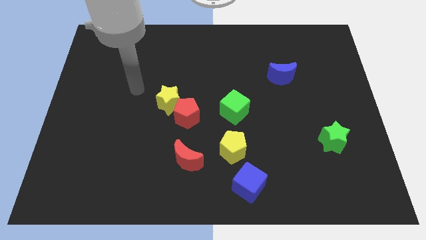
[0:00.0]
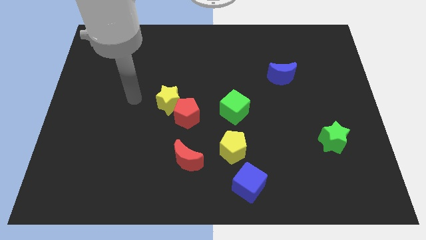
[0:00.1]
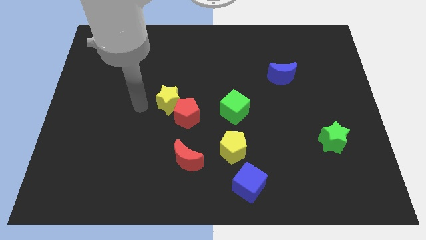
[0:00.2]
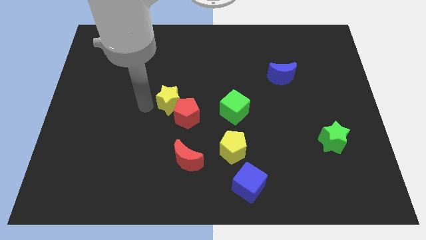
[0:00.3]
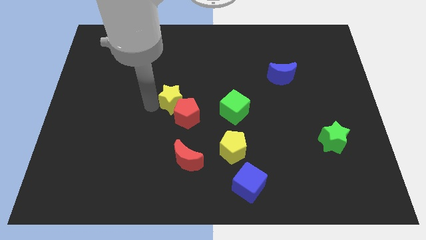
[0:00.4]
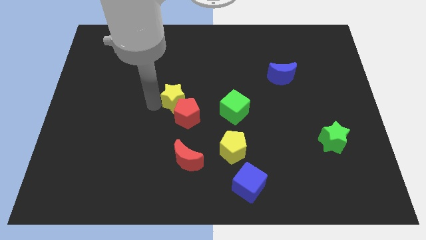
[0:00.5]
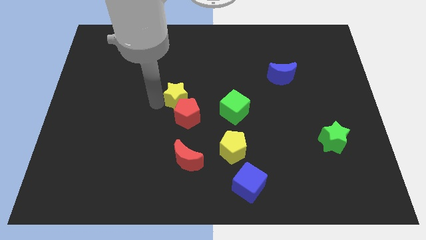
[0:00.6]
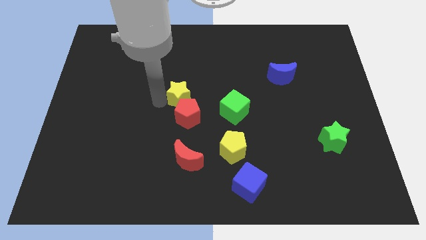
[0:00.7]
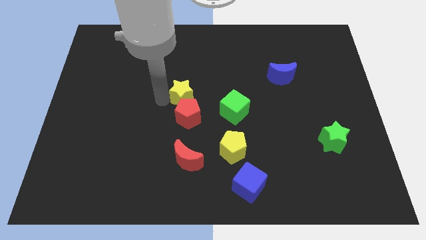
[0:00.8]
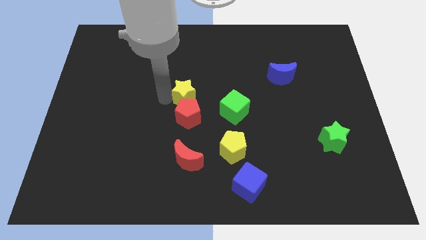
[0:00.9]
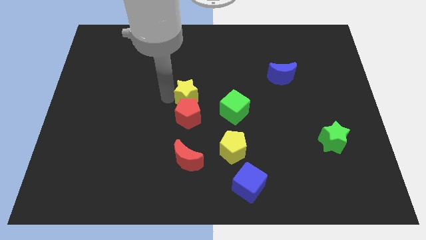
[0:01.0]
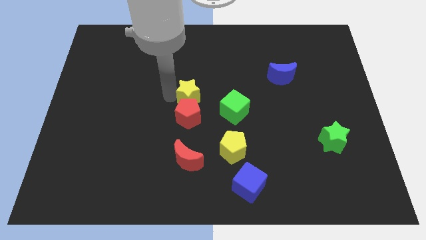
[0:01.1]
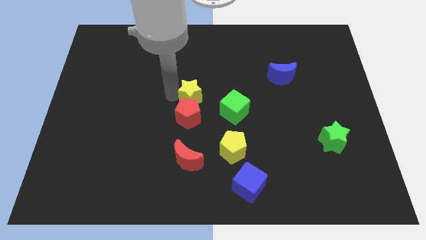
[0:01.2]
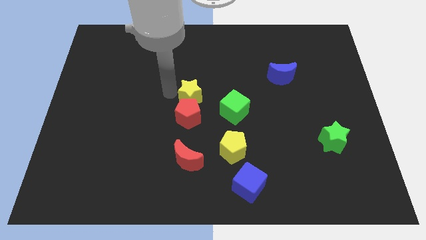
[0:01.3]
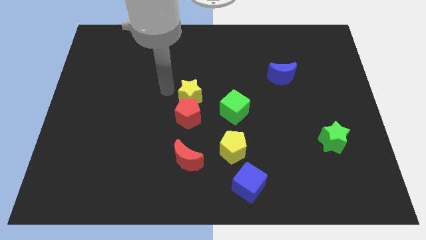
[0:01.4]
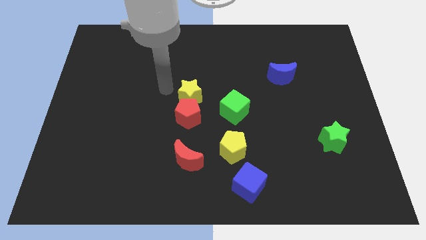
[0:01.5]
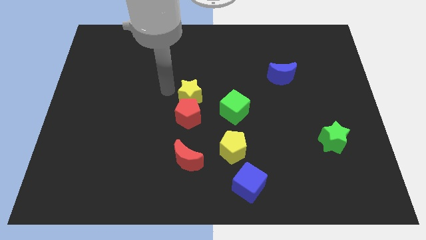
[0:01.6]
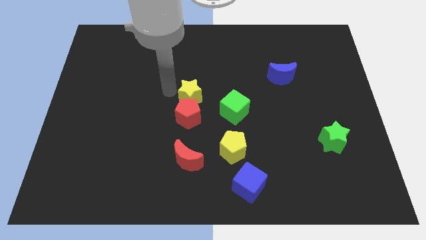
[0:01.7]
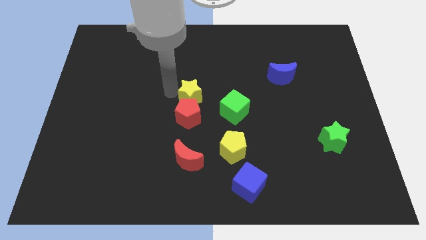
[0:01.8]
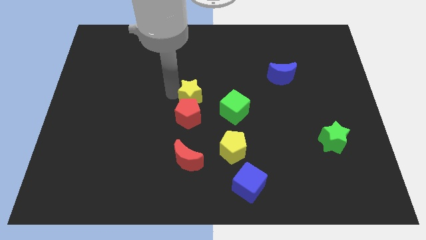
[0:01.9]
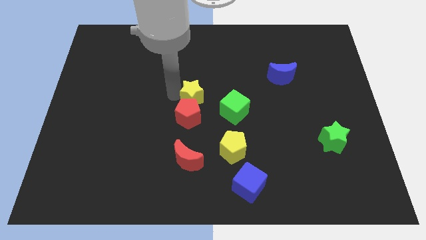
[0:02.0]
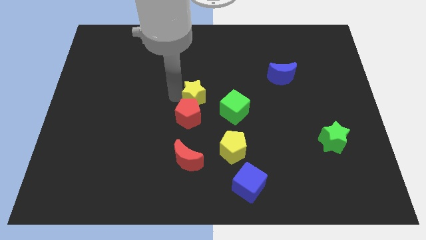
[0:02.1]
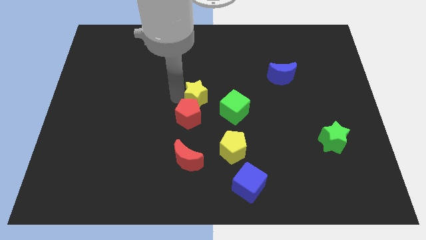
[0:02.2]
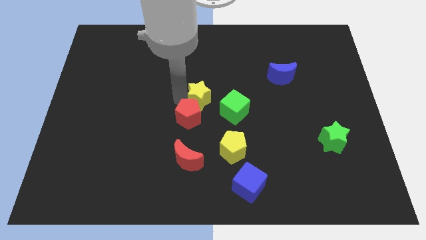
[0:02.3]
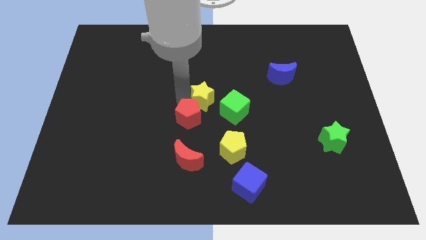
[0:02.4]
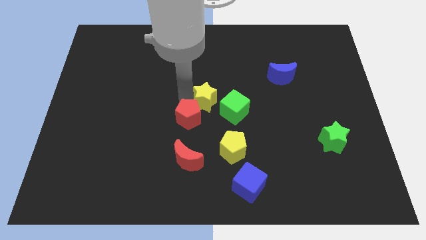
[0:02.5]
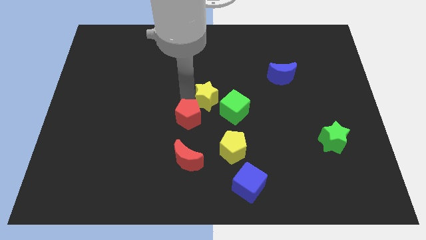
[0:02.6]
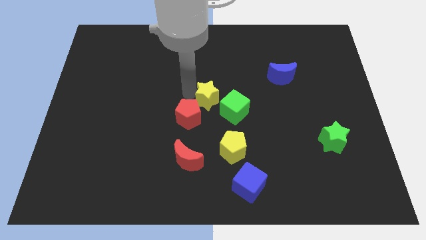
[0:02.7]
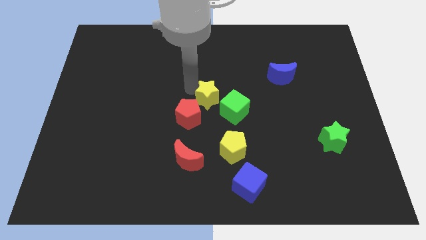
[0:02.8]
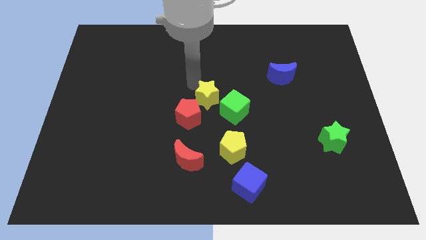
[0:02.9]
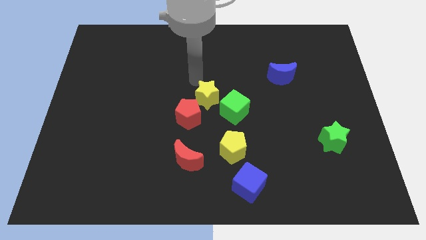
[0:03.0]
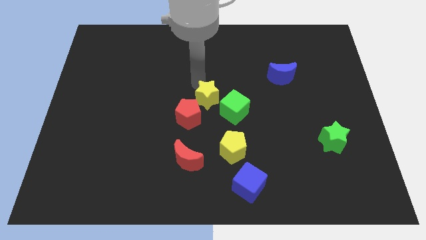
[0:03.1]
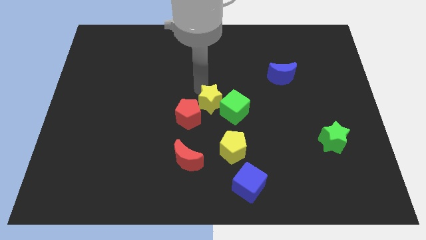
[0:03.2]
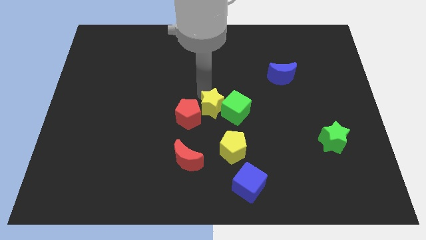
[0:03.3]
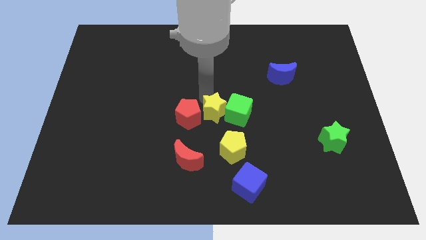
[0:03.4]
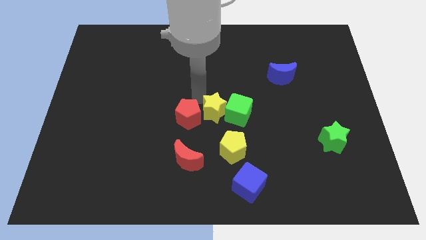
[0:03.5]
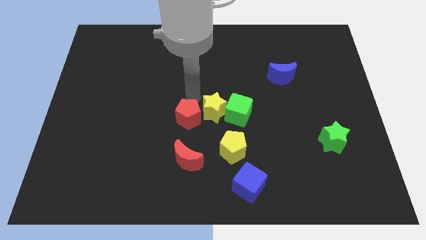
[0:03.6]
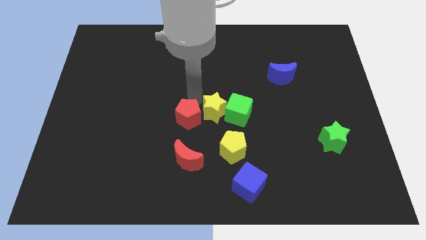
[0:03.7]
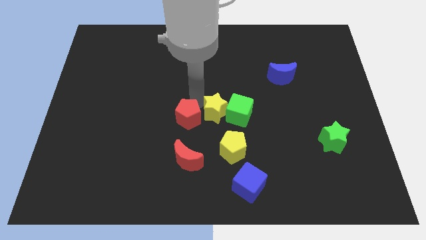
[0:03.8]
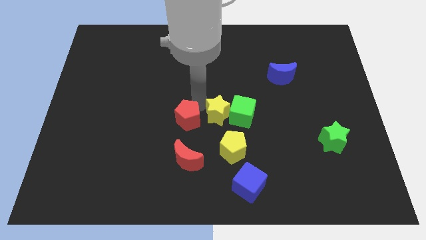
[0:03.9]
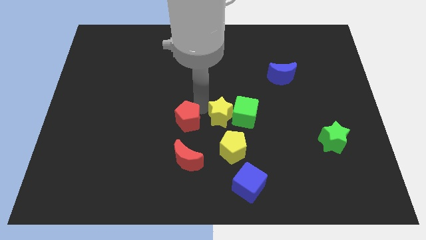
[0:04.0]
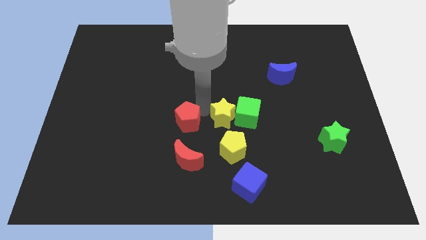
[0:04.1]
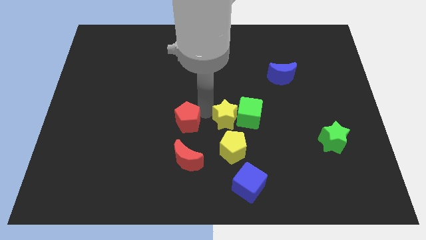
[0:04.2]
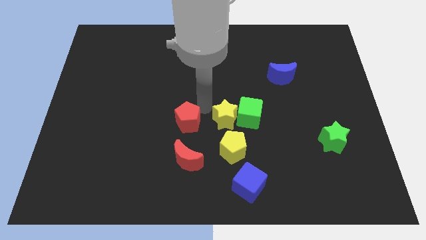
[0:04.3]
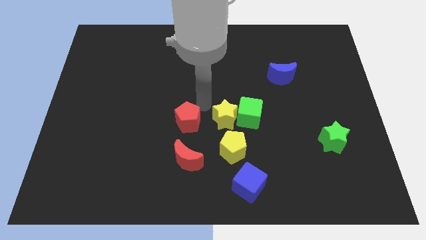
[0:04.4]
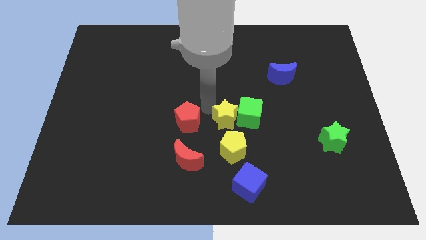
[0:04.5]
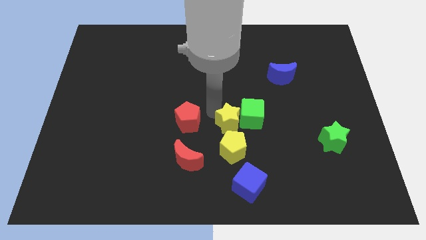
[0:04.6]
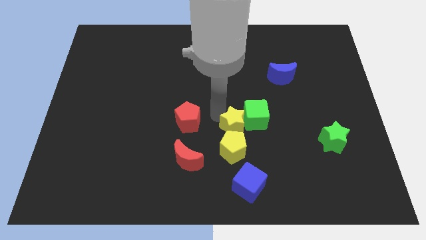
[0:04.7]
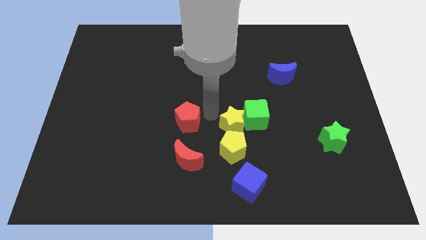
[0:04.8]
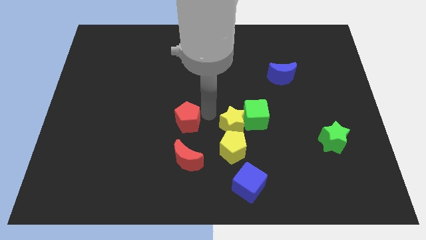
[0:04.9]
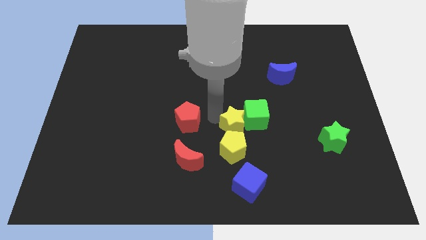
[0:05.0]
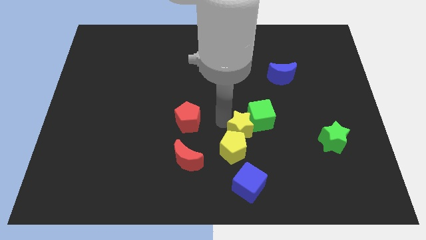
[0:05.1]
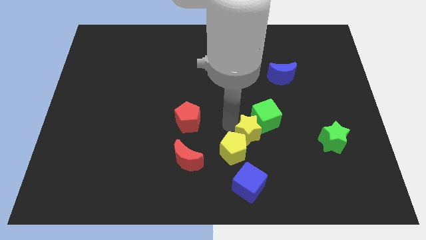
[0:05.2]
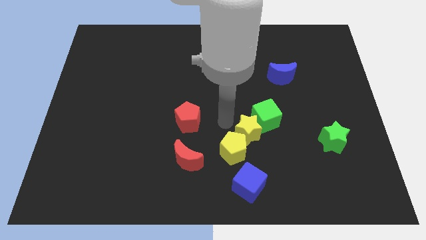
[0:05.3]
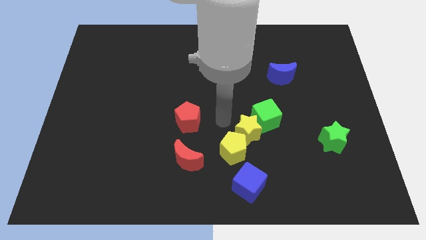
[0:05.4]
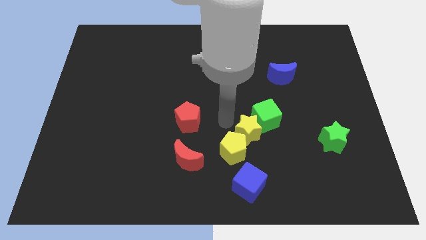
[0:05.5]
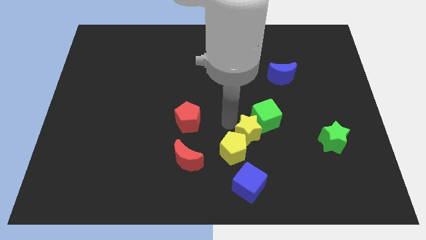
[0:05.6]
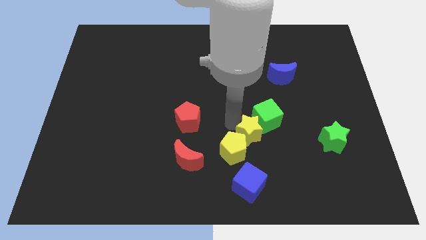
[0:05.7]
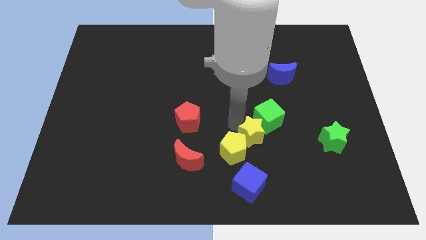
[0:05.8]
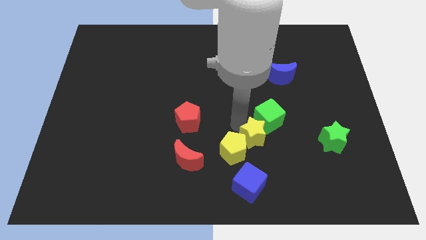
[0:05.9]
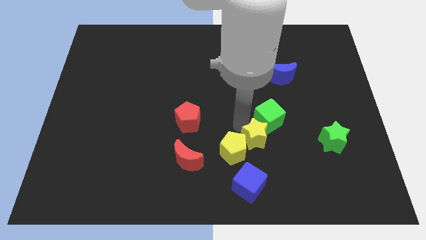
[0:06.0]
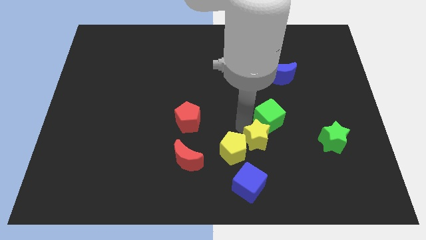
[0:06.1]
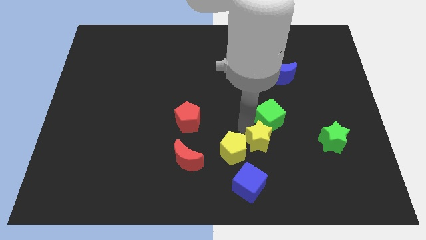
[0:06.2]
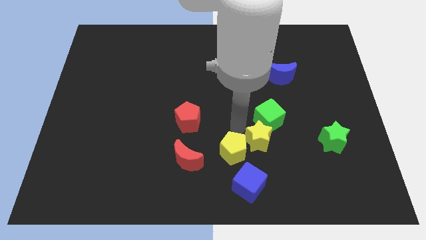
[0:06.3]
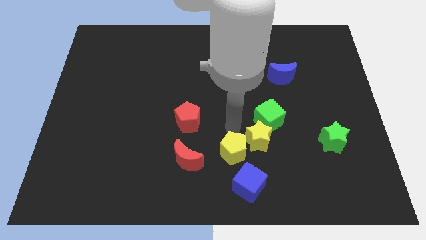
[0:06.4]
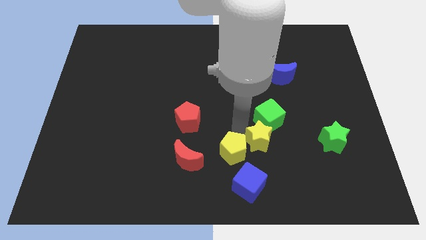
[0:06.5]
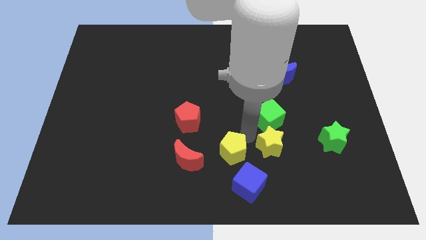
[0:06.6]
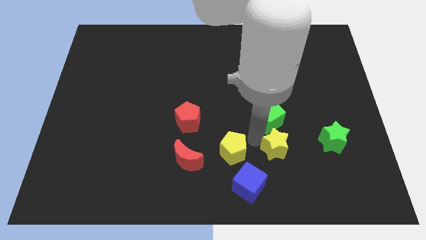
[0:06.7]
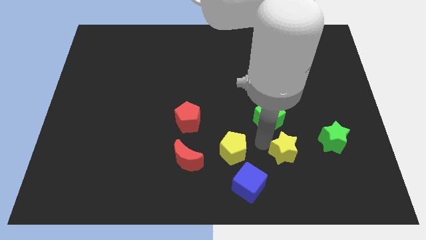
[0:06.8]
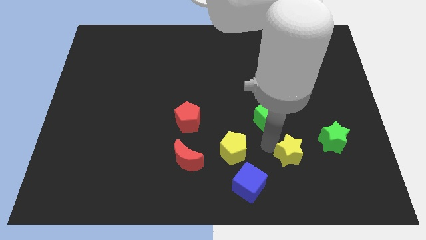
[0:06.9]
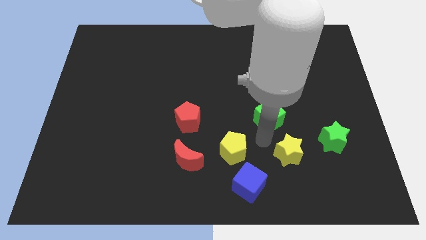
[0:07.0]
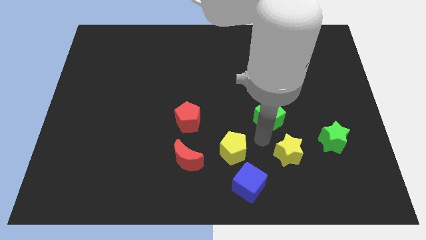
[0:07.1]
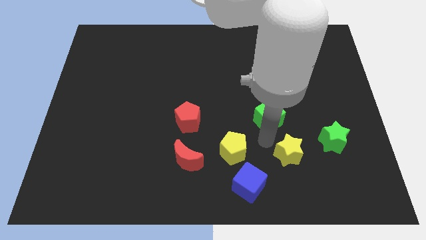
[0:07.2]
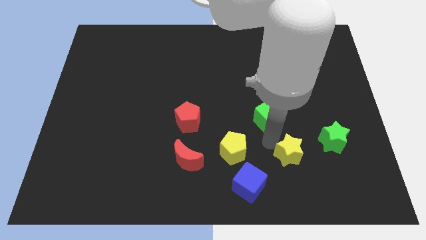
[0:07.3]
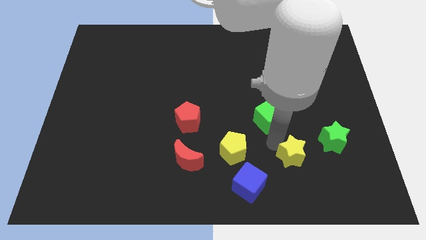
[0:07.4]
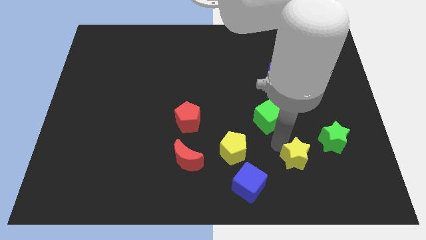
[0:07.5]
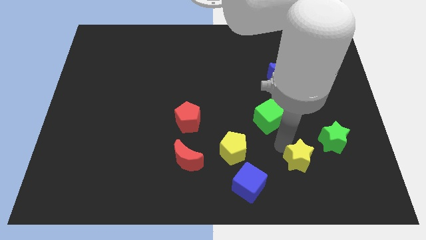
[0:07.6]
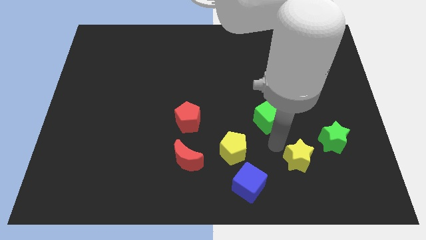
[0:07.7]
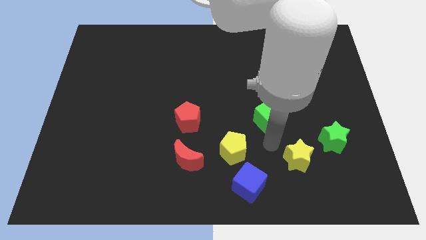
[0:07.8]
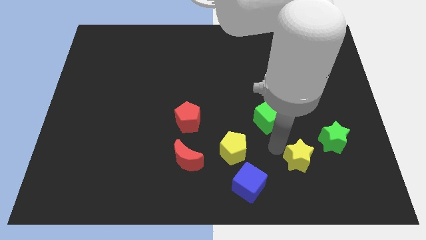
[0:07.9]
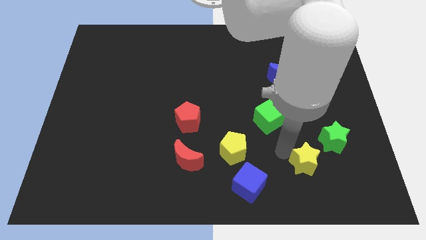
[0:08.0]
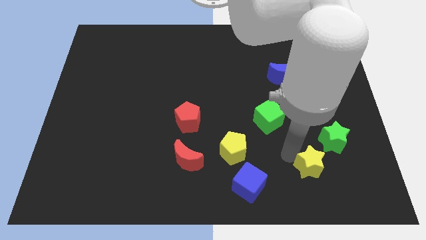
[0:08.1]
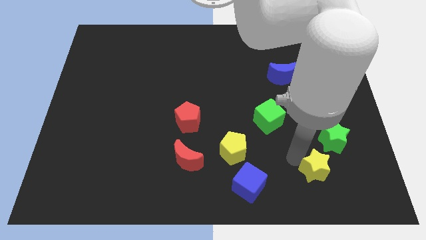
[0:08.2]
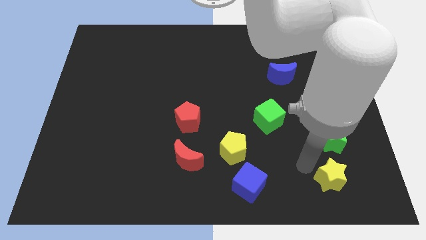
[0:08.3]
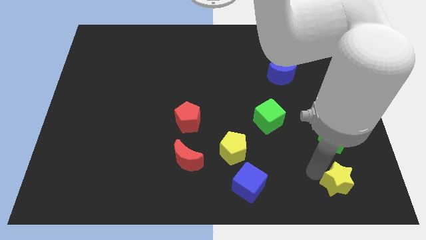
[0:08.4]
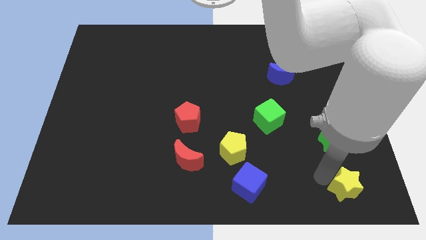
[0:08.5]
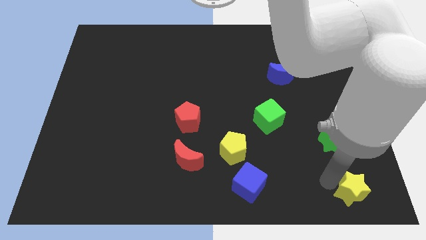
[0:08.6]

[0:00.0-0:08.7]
slide the yellow star to the lower right corner
